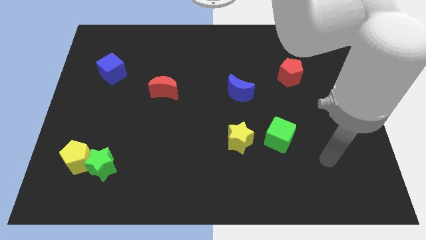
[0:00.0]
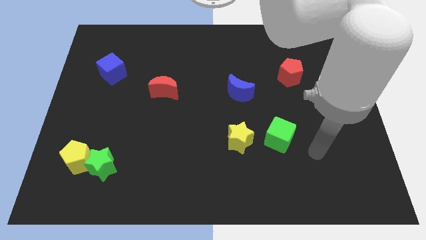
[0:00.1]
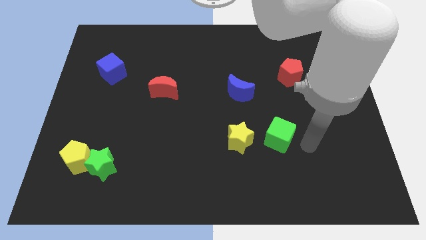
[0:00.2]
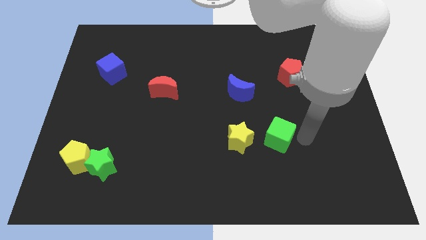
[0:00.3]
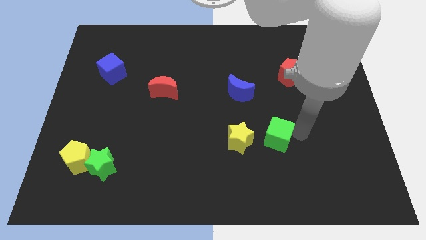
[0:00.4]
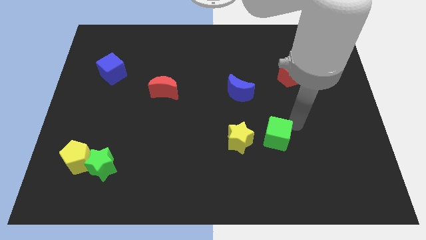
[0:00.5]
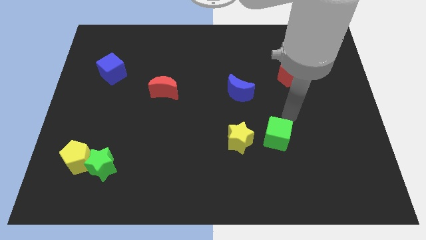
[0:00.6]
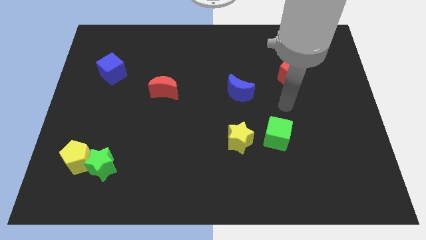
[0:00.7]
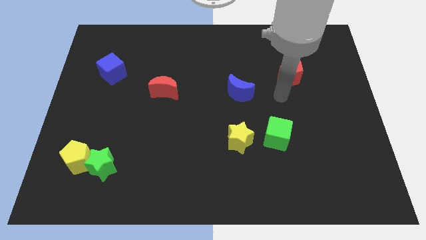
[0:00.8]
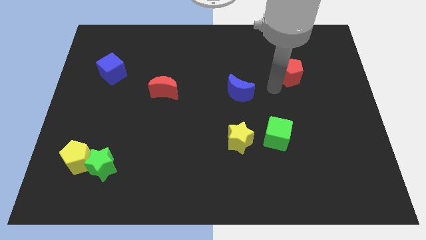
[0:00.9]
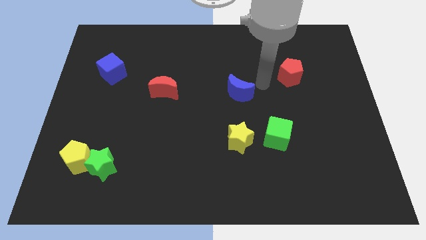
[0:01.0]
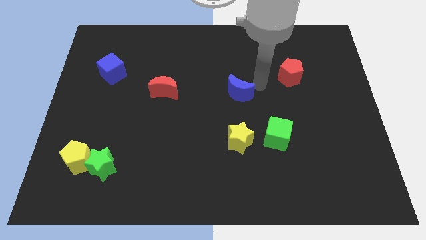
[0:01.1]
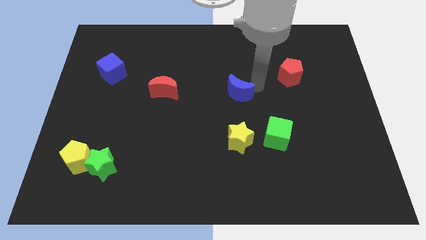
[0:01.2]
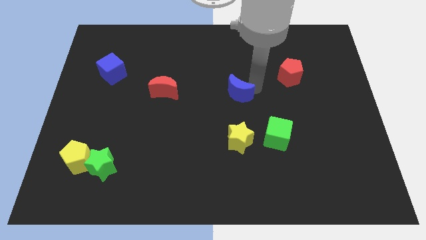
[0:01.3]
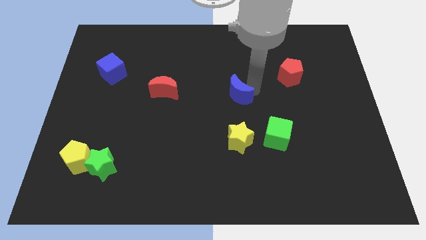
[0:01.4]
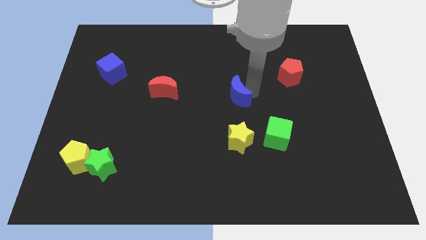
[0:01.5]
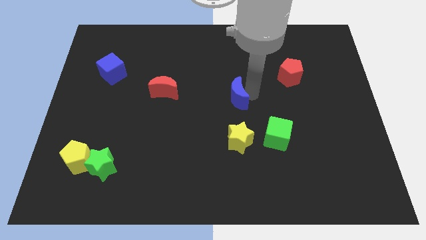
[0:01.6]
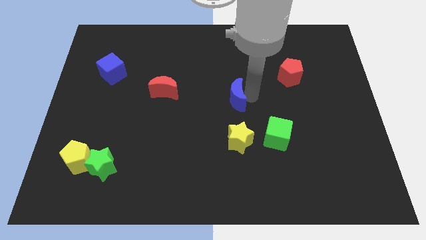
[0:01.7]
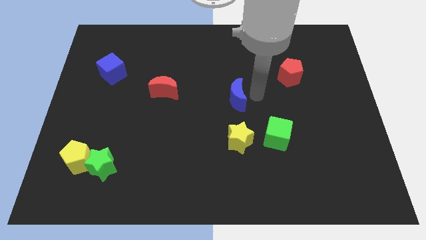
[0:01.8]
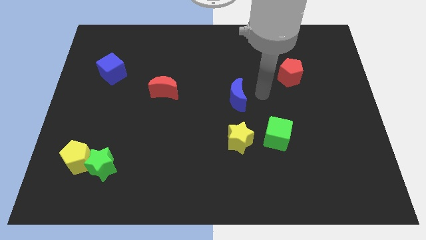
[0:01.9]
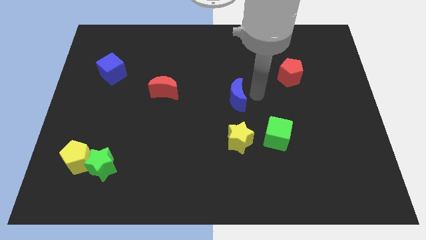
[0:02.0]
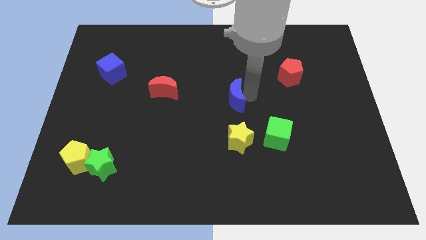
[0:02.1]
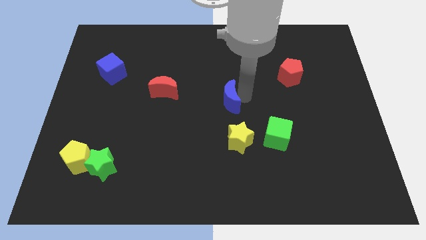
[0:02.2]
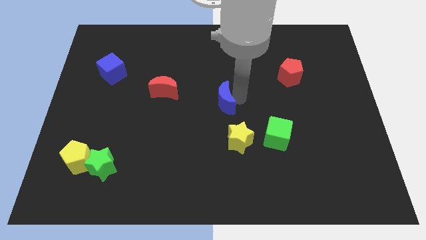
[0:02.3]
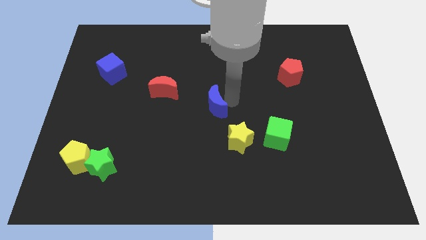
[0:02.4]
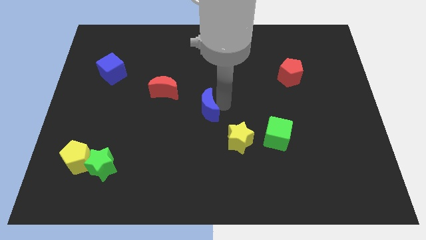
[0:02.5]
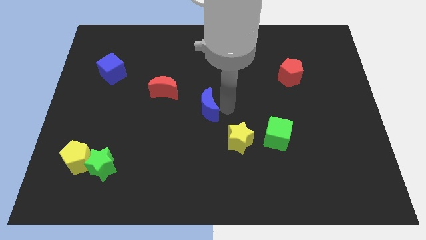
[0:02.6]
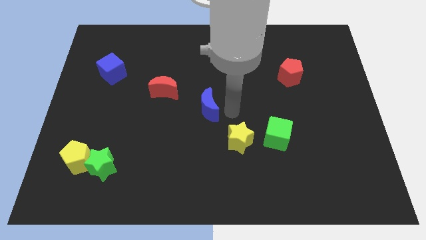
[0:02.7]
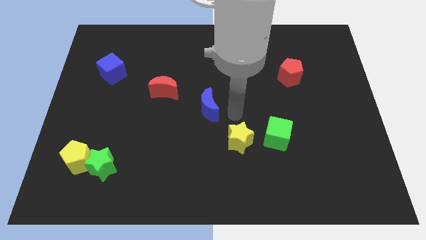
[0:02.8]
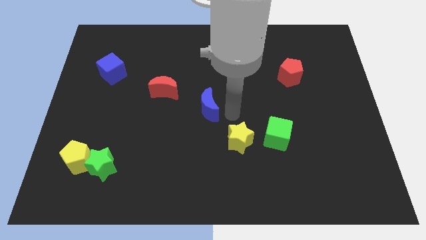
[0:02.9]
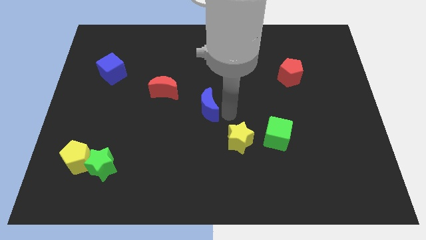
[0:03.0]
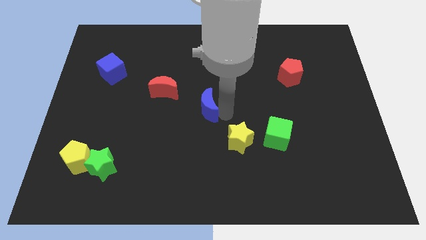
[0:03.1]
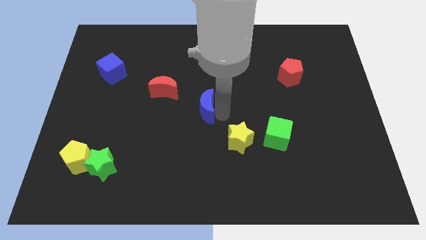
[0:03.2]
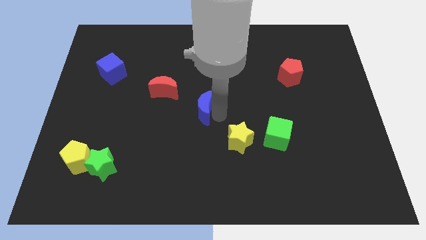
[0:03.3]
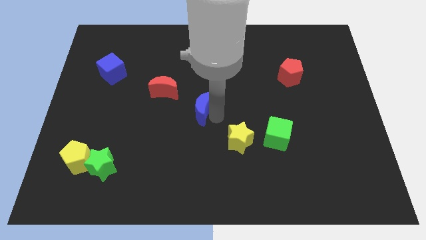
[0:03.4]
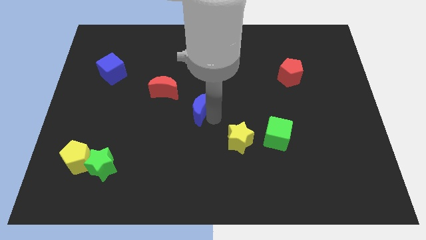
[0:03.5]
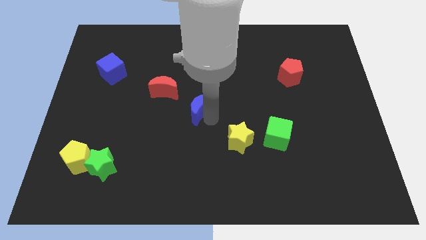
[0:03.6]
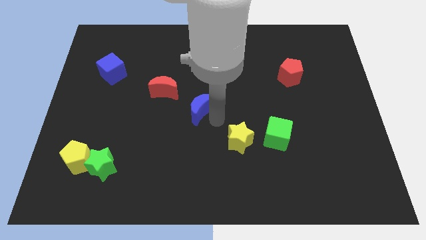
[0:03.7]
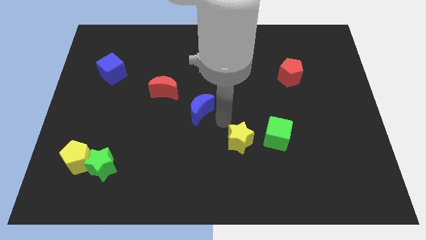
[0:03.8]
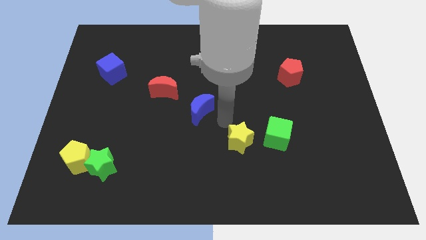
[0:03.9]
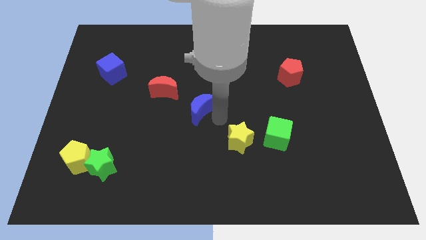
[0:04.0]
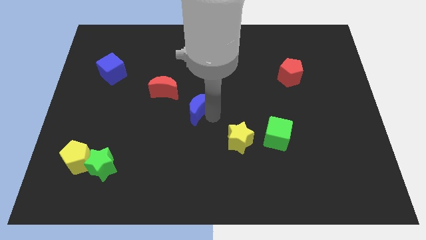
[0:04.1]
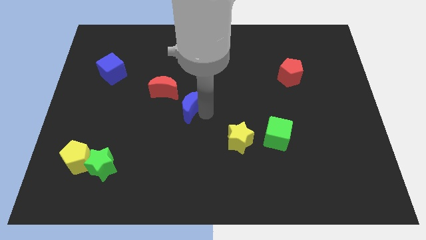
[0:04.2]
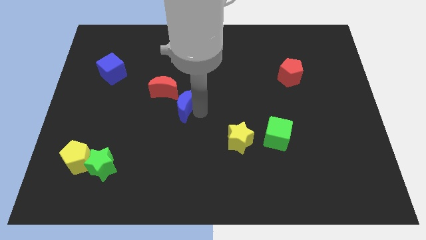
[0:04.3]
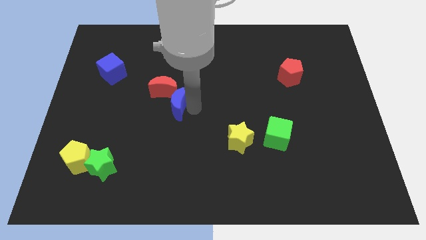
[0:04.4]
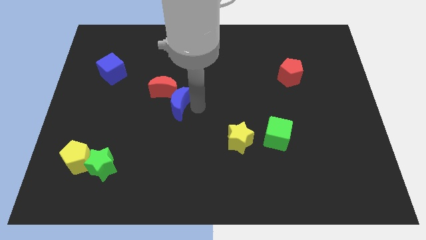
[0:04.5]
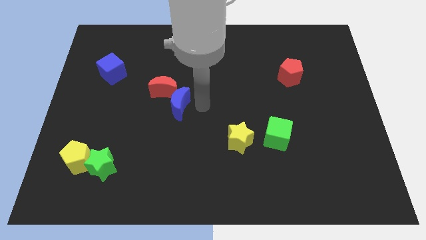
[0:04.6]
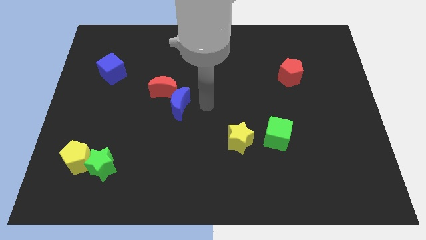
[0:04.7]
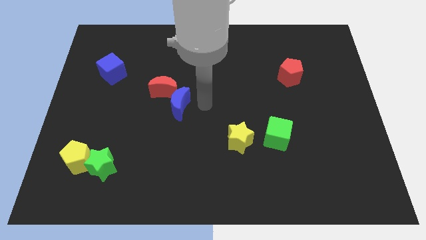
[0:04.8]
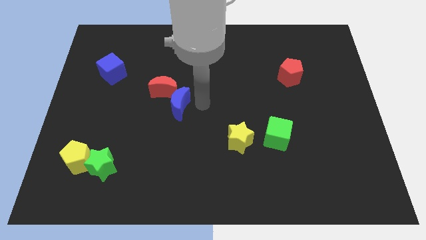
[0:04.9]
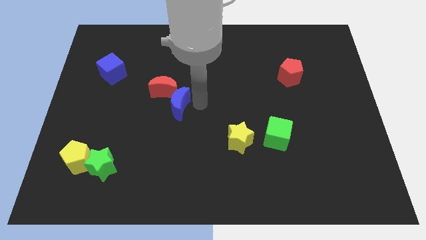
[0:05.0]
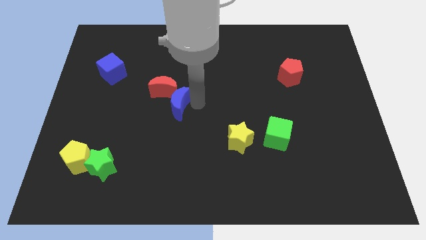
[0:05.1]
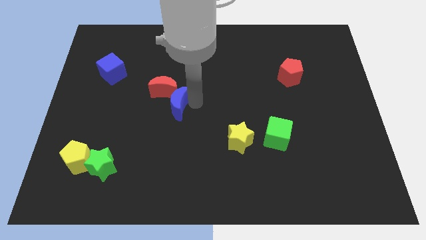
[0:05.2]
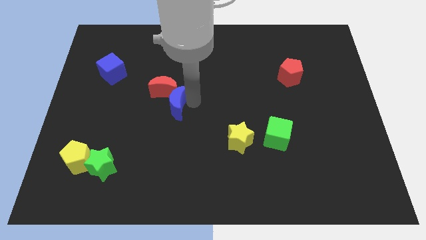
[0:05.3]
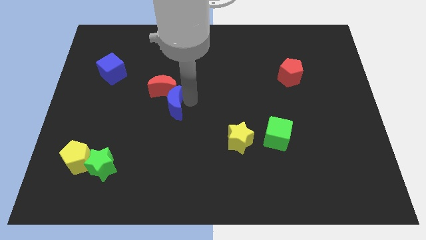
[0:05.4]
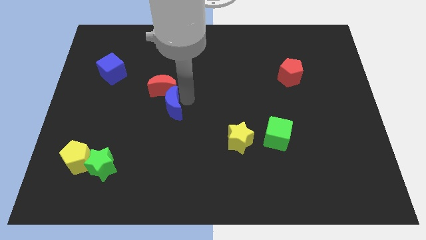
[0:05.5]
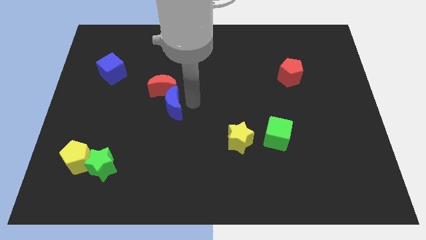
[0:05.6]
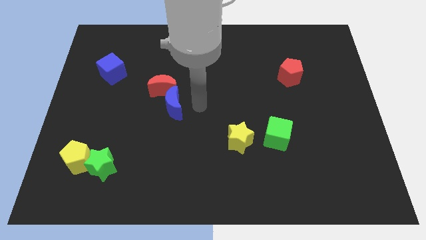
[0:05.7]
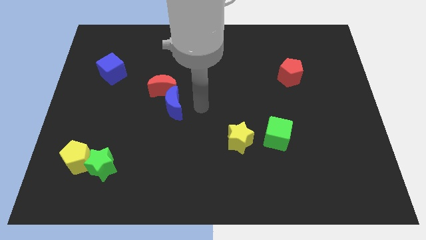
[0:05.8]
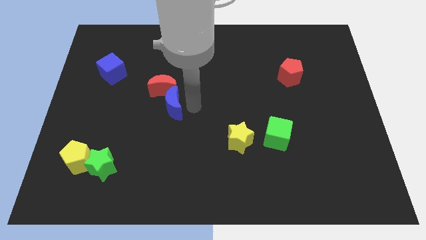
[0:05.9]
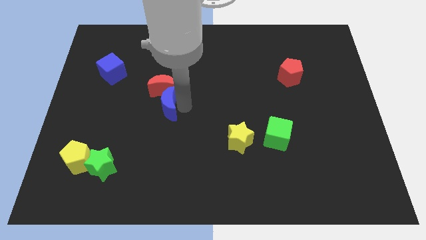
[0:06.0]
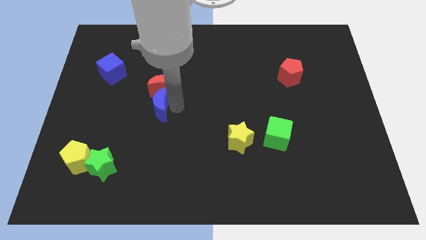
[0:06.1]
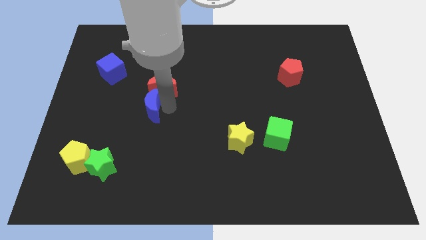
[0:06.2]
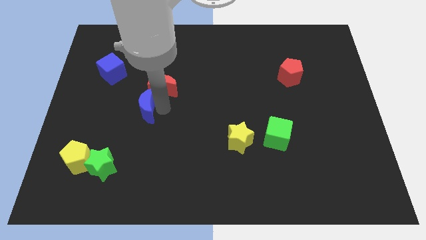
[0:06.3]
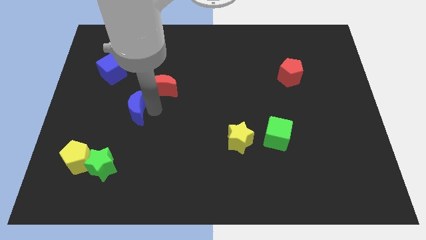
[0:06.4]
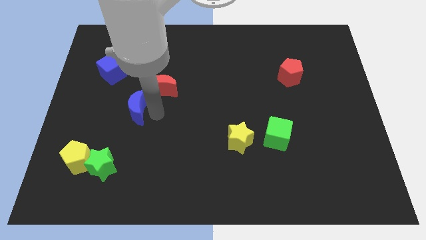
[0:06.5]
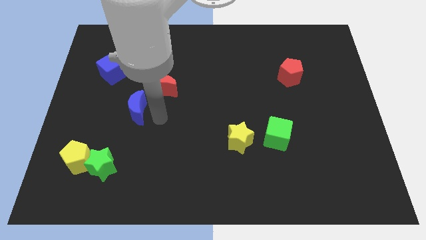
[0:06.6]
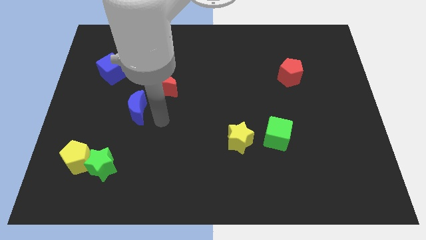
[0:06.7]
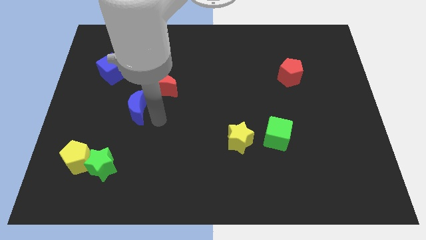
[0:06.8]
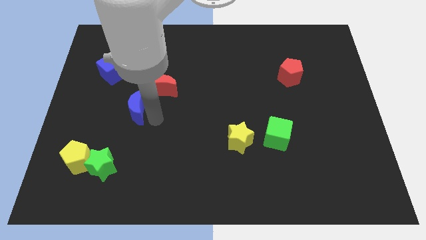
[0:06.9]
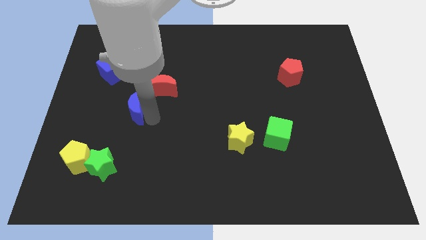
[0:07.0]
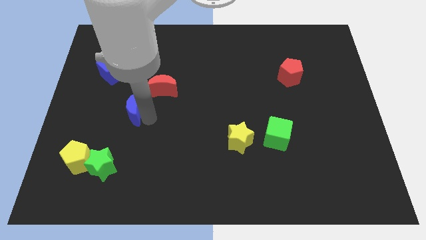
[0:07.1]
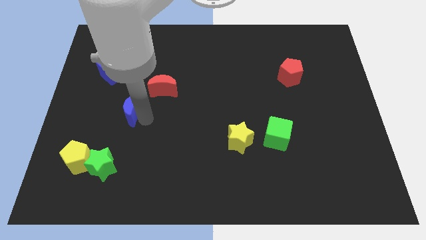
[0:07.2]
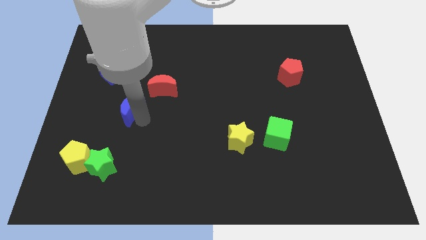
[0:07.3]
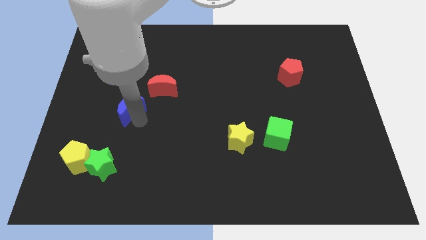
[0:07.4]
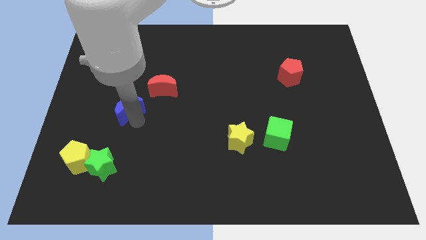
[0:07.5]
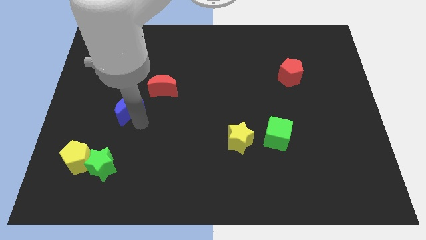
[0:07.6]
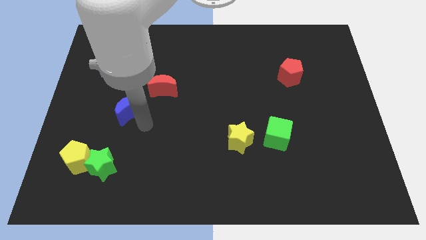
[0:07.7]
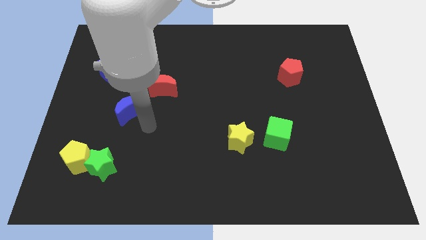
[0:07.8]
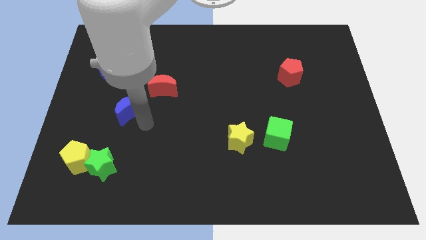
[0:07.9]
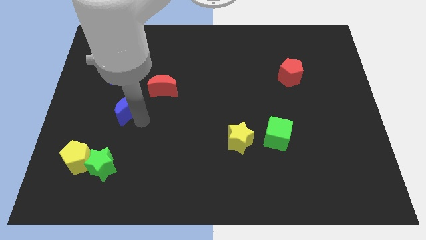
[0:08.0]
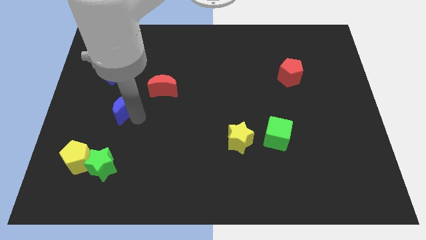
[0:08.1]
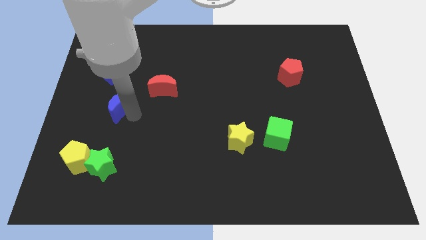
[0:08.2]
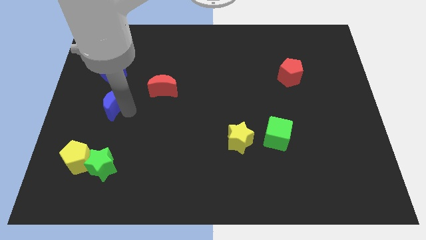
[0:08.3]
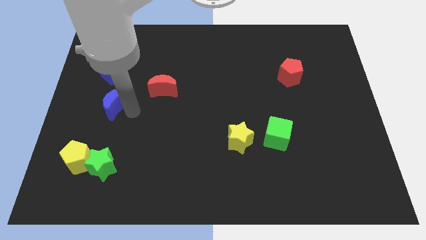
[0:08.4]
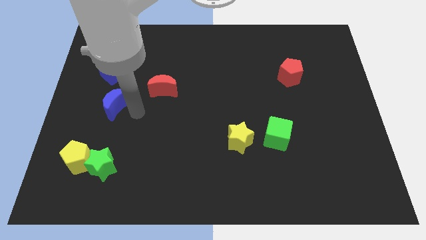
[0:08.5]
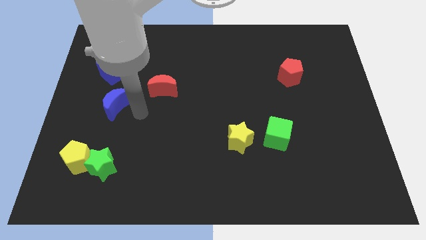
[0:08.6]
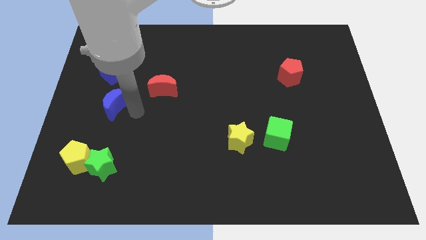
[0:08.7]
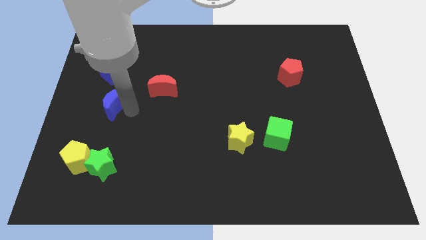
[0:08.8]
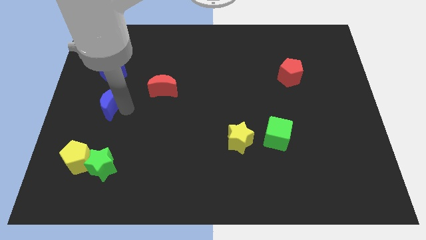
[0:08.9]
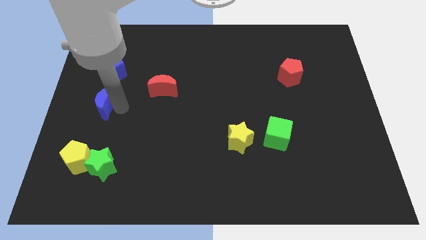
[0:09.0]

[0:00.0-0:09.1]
move the blue moon to the left side
